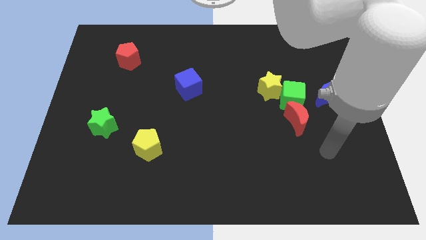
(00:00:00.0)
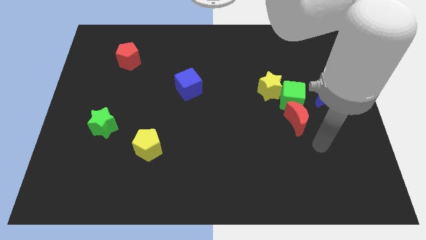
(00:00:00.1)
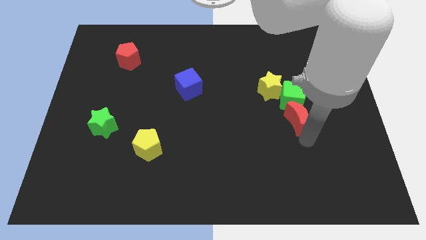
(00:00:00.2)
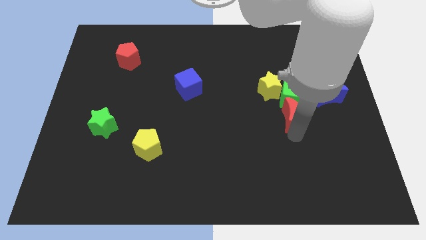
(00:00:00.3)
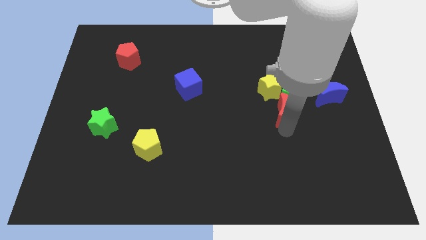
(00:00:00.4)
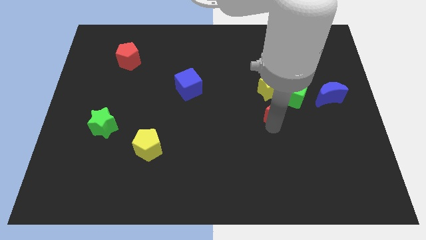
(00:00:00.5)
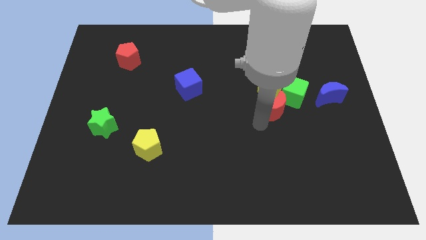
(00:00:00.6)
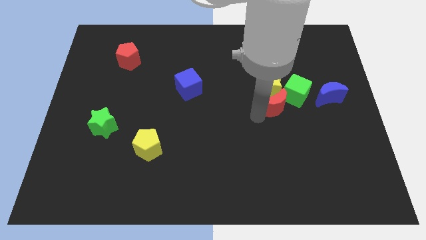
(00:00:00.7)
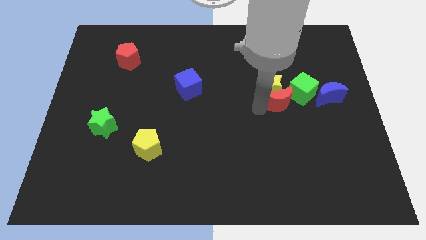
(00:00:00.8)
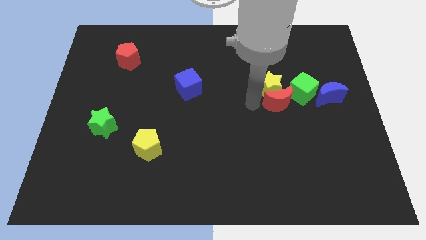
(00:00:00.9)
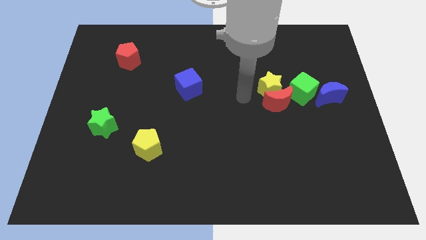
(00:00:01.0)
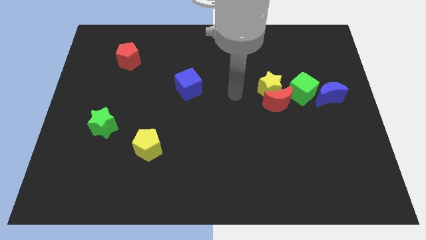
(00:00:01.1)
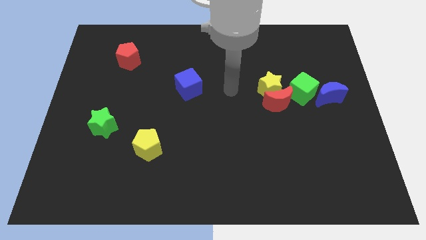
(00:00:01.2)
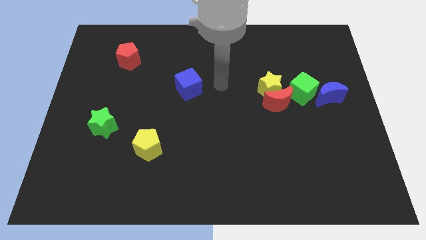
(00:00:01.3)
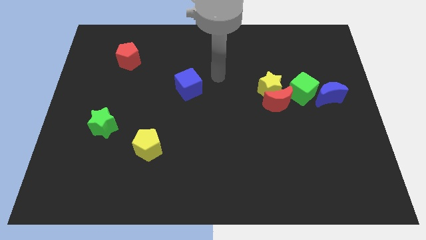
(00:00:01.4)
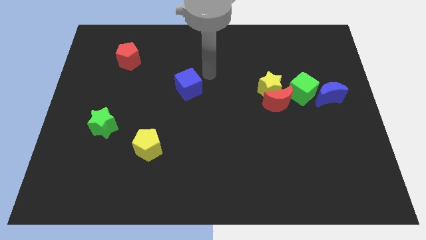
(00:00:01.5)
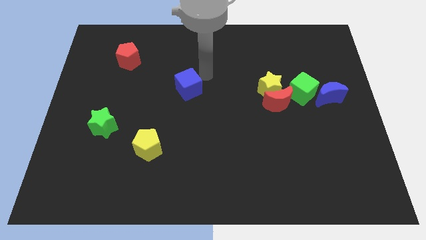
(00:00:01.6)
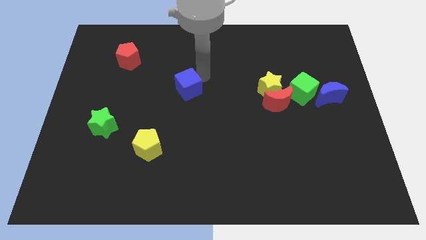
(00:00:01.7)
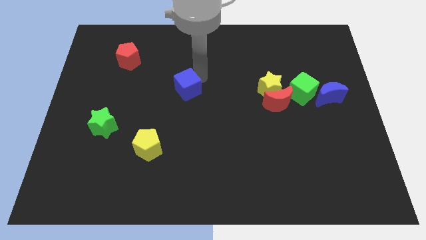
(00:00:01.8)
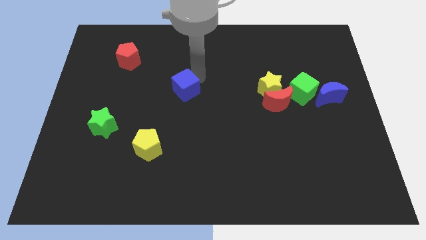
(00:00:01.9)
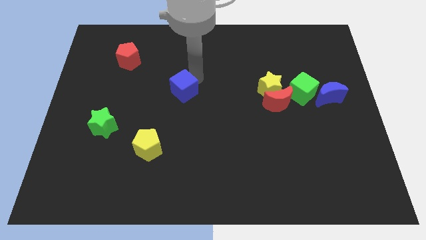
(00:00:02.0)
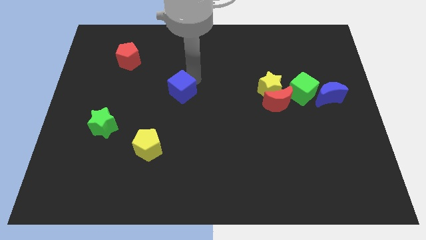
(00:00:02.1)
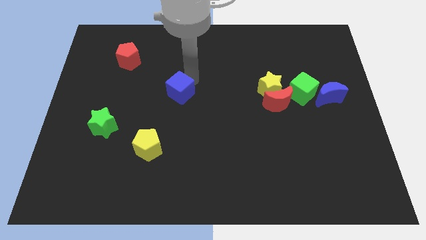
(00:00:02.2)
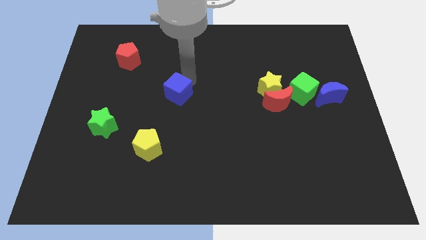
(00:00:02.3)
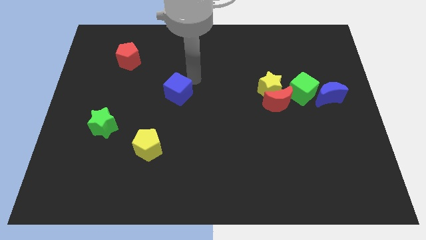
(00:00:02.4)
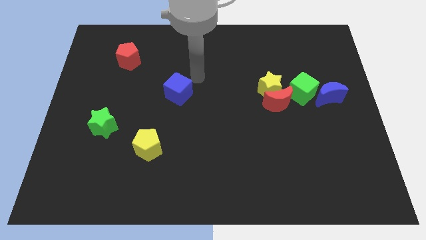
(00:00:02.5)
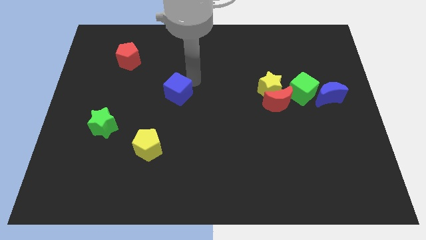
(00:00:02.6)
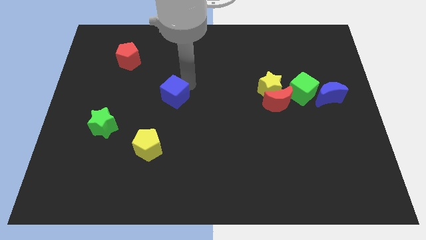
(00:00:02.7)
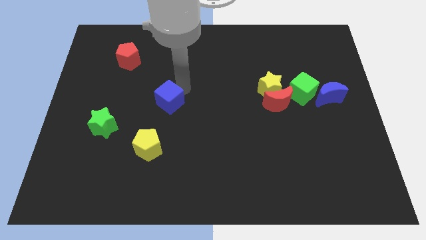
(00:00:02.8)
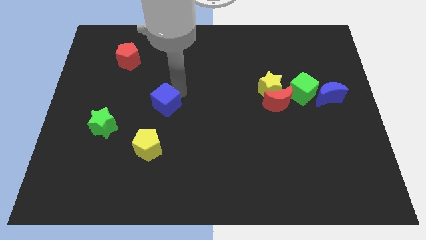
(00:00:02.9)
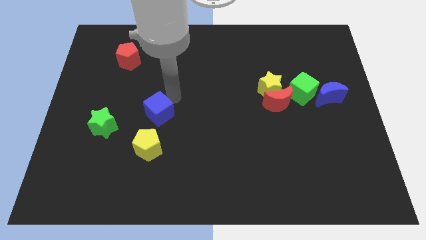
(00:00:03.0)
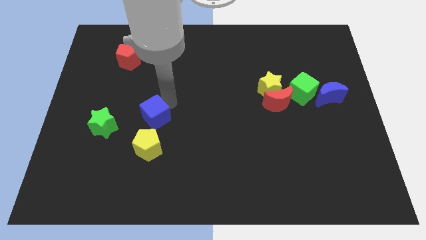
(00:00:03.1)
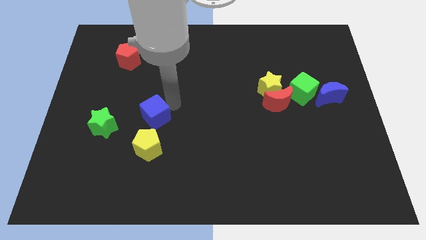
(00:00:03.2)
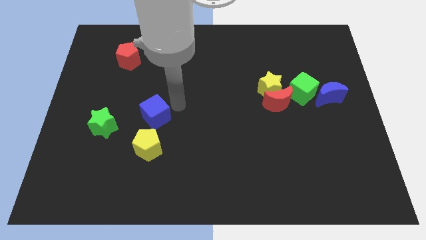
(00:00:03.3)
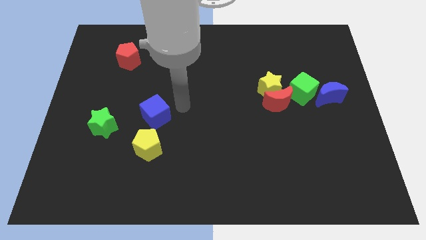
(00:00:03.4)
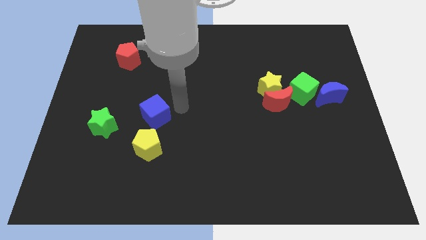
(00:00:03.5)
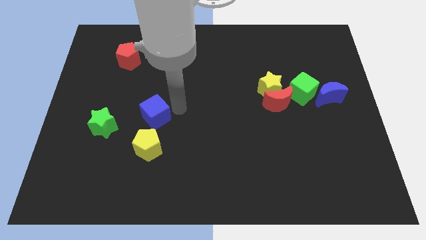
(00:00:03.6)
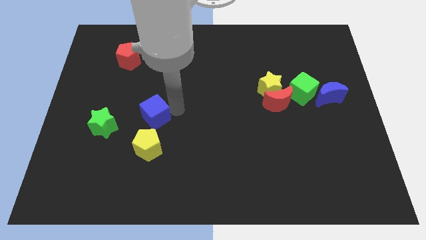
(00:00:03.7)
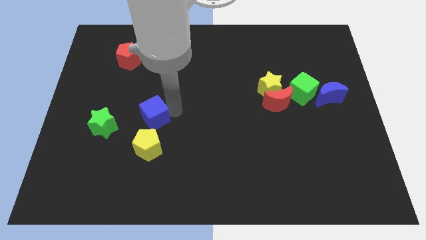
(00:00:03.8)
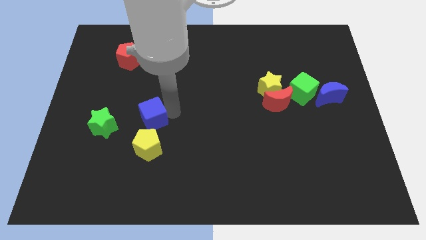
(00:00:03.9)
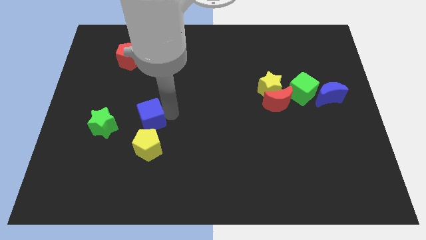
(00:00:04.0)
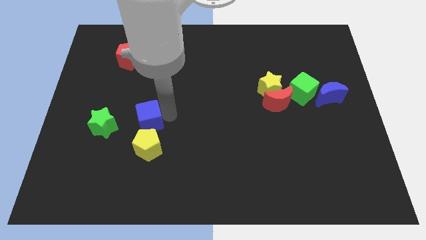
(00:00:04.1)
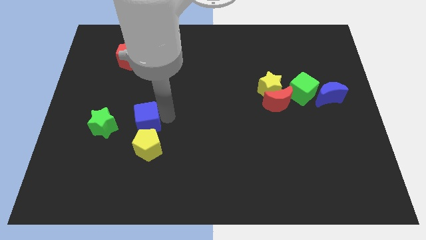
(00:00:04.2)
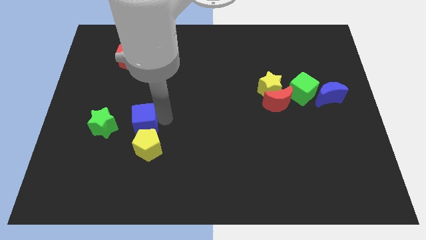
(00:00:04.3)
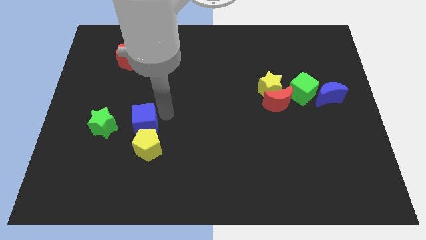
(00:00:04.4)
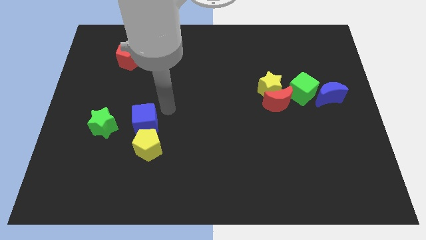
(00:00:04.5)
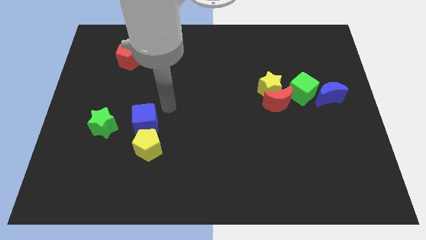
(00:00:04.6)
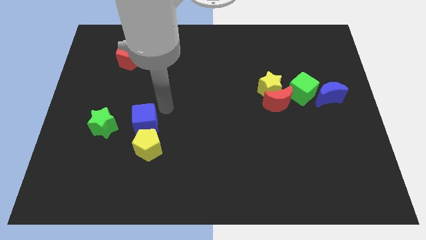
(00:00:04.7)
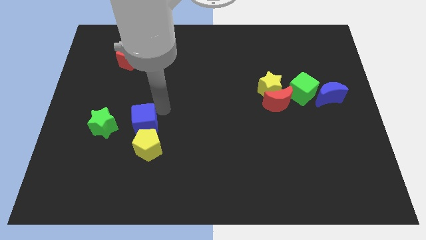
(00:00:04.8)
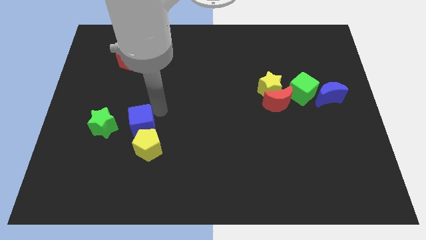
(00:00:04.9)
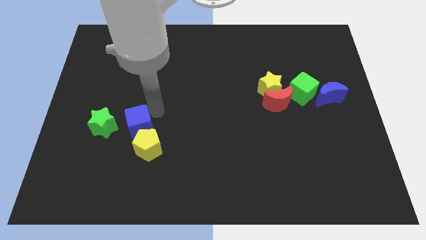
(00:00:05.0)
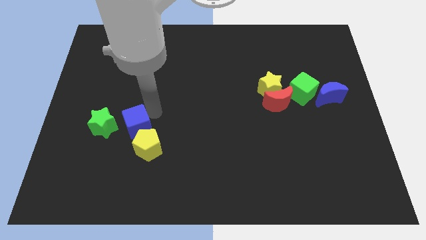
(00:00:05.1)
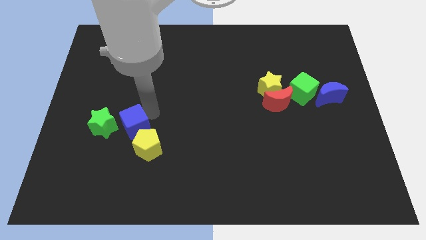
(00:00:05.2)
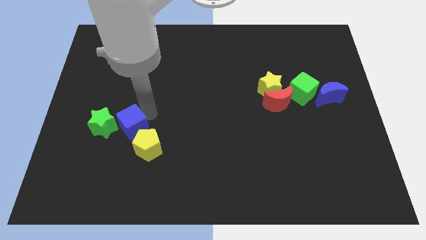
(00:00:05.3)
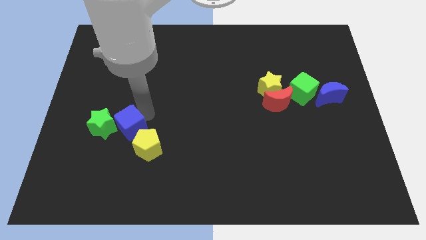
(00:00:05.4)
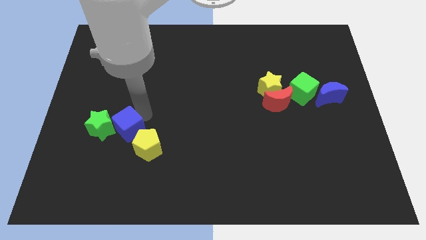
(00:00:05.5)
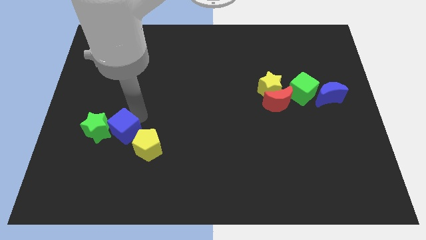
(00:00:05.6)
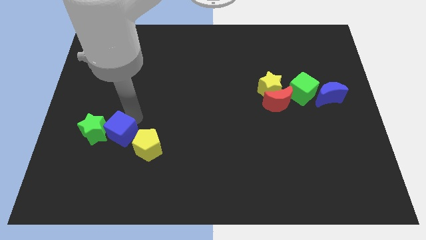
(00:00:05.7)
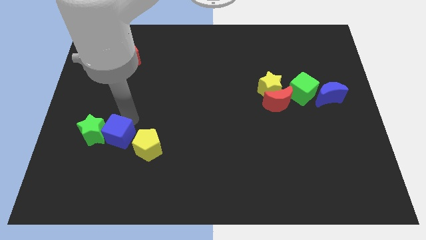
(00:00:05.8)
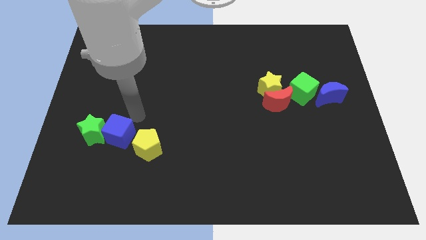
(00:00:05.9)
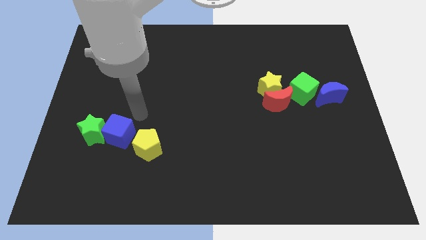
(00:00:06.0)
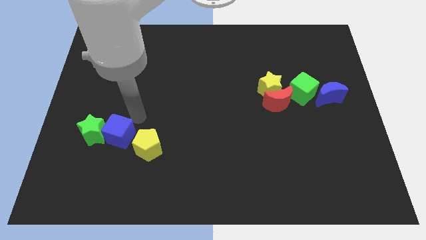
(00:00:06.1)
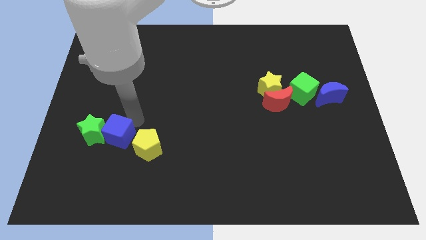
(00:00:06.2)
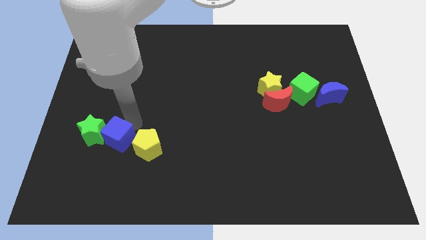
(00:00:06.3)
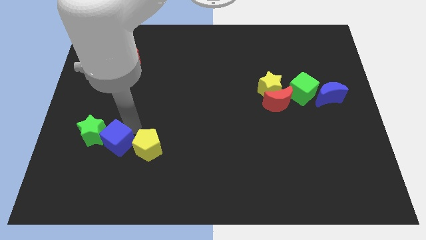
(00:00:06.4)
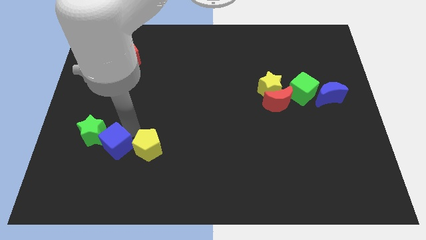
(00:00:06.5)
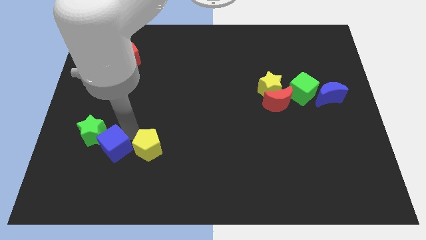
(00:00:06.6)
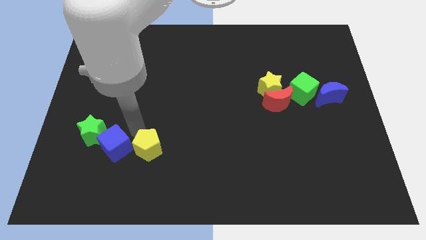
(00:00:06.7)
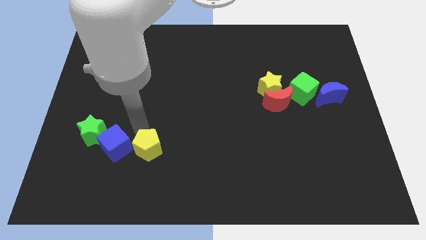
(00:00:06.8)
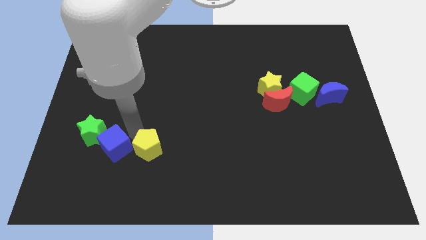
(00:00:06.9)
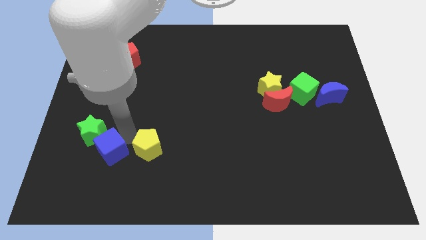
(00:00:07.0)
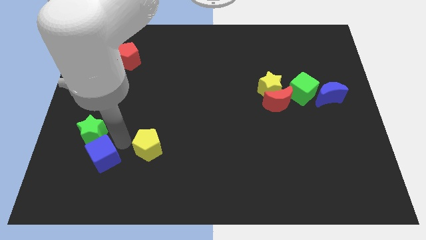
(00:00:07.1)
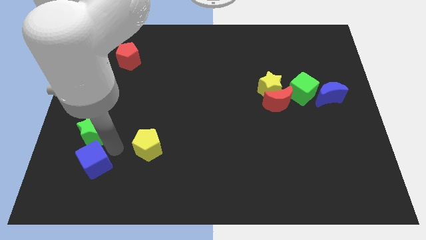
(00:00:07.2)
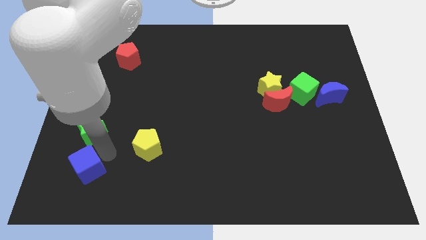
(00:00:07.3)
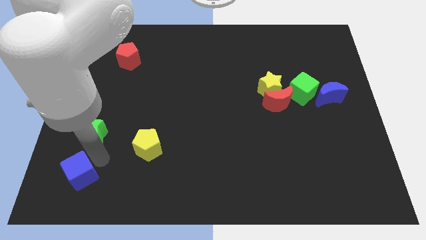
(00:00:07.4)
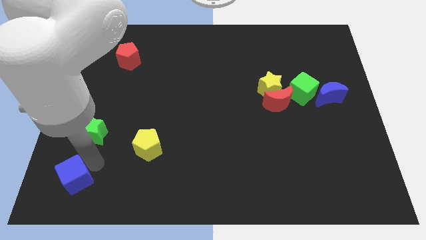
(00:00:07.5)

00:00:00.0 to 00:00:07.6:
push the blue cube to the lower left corner
